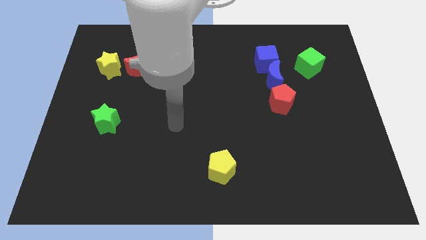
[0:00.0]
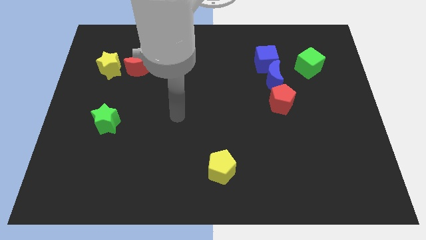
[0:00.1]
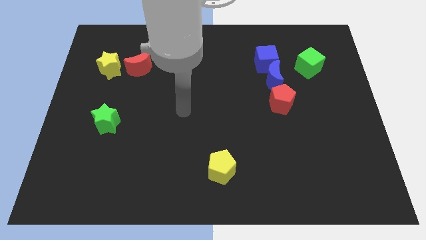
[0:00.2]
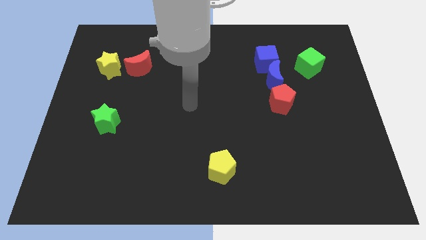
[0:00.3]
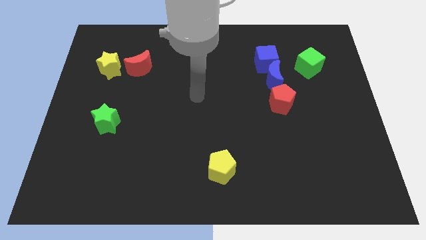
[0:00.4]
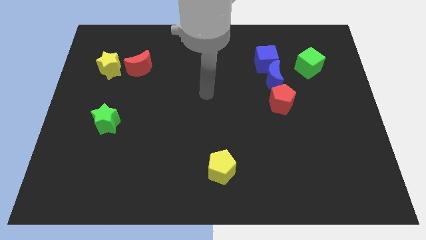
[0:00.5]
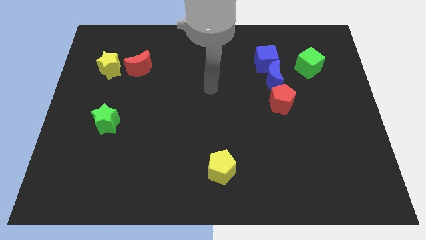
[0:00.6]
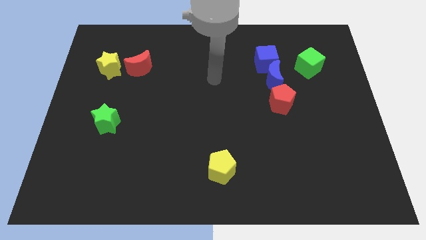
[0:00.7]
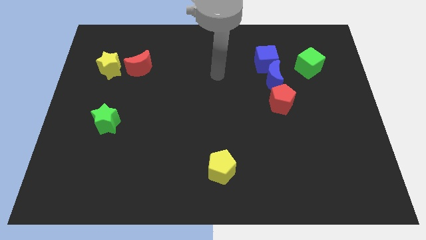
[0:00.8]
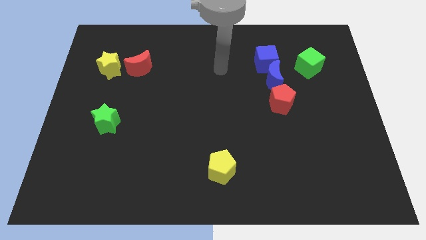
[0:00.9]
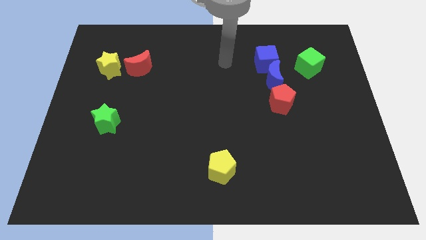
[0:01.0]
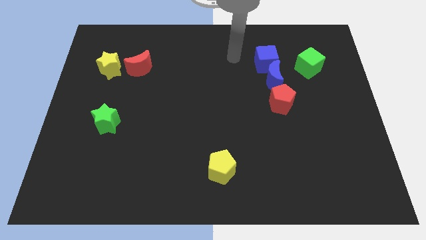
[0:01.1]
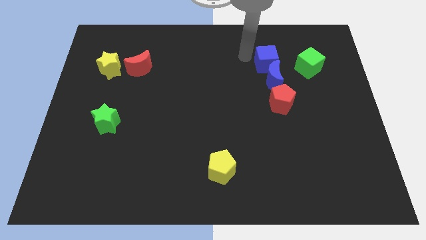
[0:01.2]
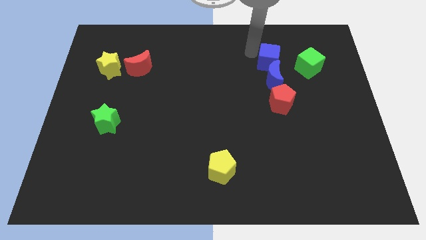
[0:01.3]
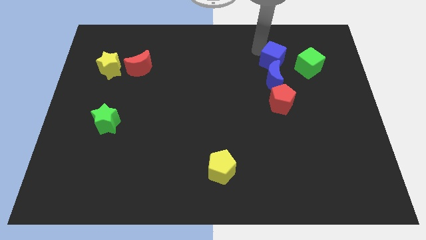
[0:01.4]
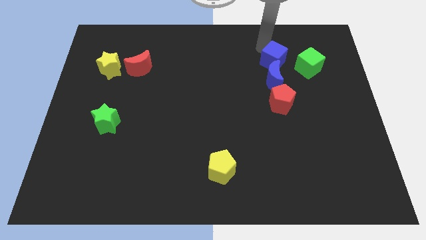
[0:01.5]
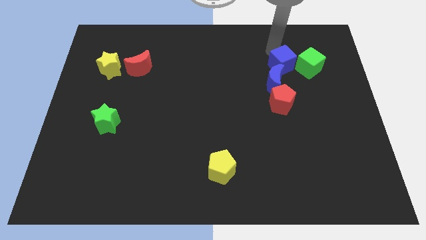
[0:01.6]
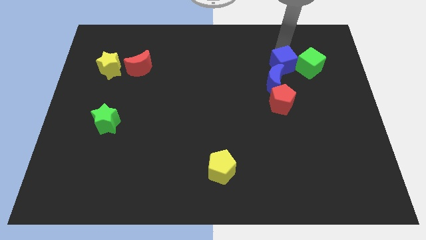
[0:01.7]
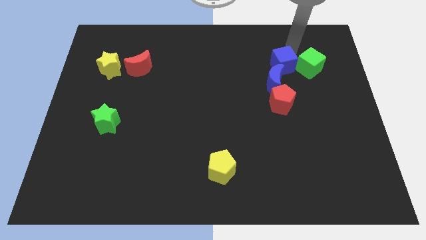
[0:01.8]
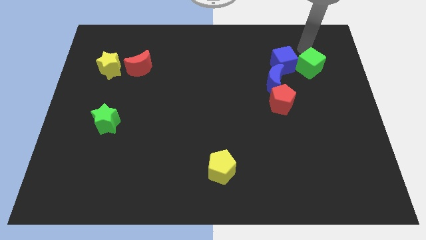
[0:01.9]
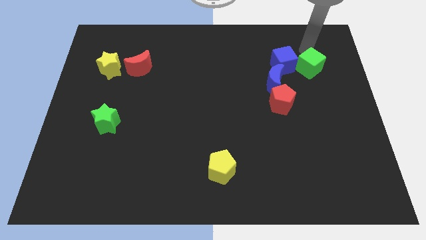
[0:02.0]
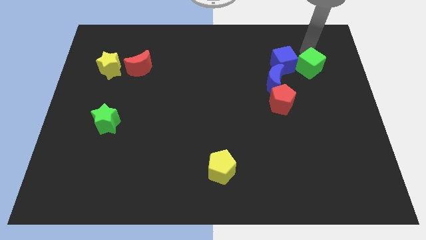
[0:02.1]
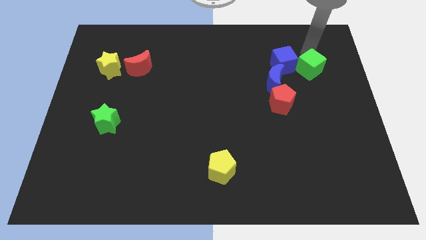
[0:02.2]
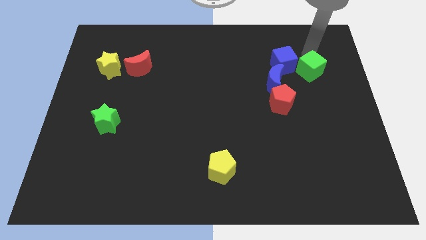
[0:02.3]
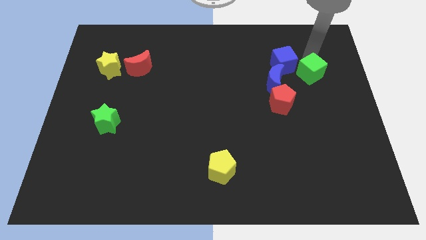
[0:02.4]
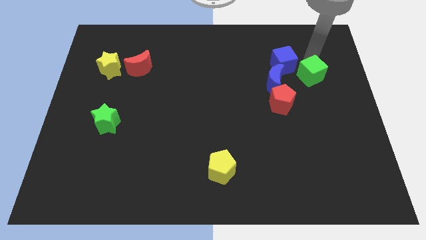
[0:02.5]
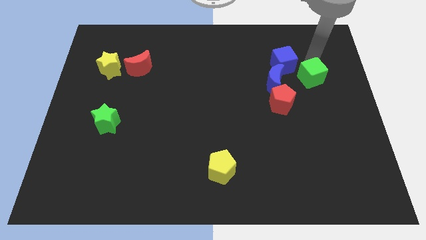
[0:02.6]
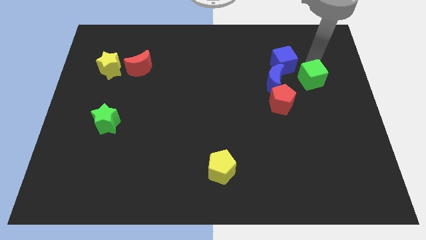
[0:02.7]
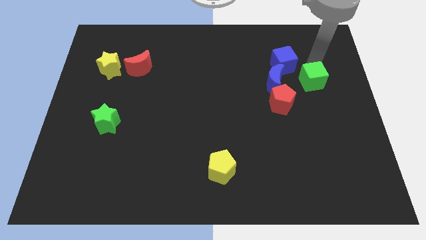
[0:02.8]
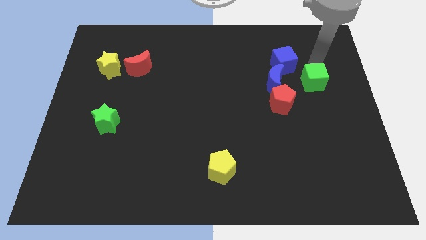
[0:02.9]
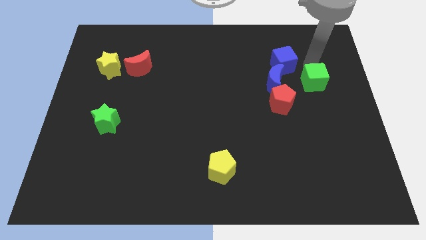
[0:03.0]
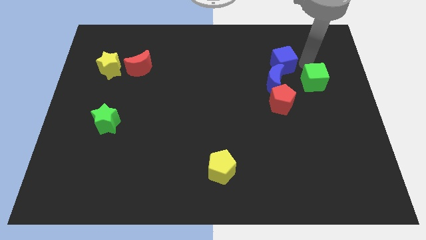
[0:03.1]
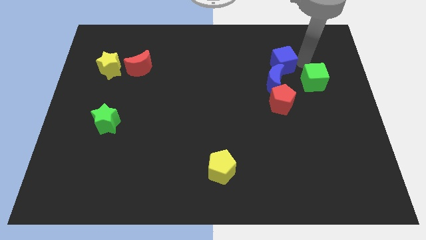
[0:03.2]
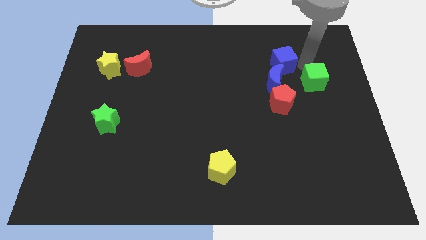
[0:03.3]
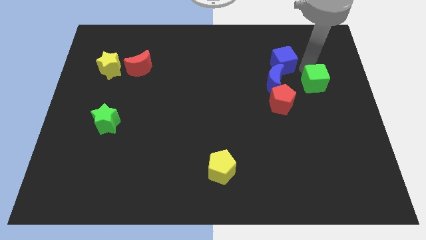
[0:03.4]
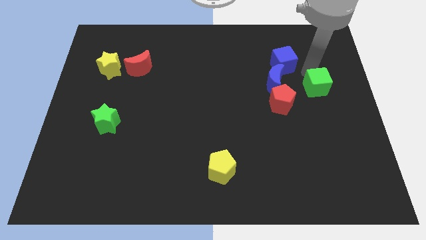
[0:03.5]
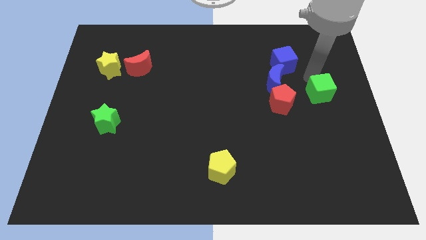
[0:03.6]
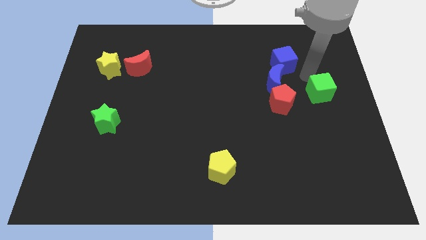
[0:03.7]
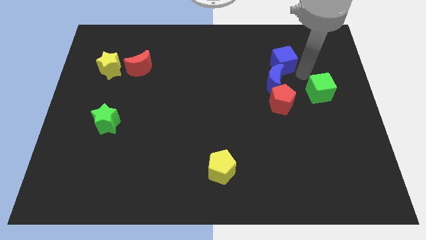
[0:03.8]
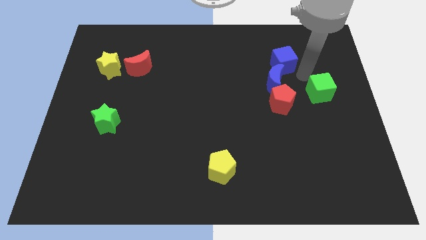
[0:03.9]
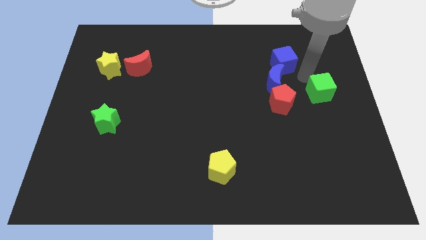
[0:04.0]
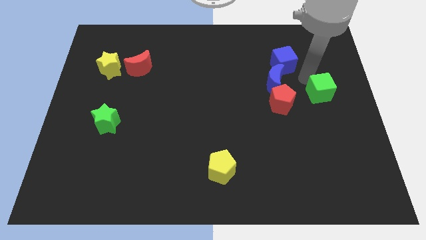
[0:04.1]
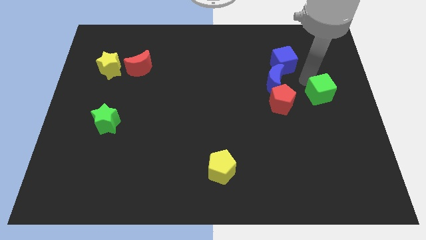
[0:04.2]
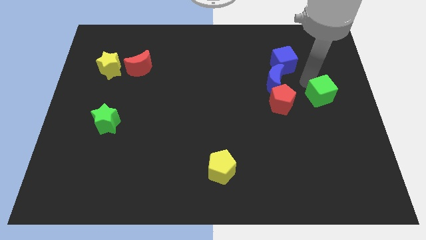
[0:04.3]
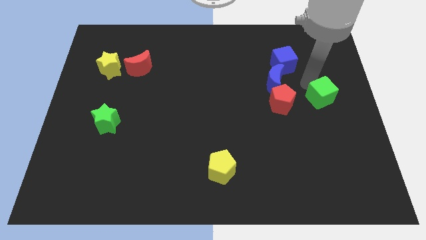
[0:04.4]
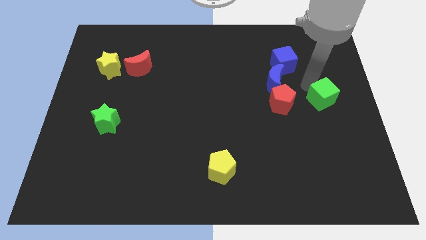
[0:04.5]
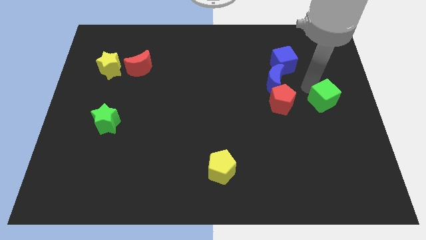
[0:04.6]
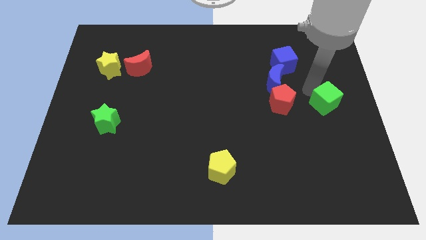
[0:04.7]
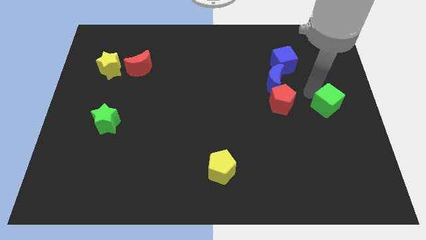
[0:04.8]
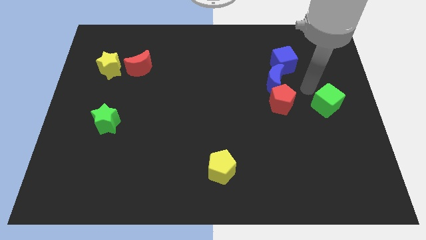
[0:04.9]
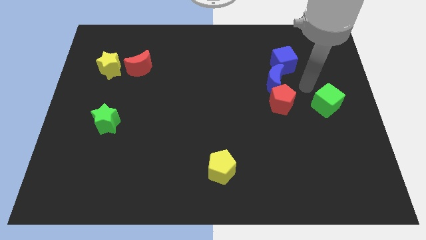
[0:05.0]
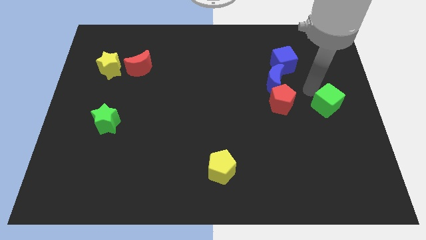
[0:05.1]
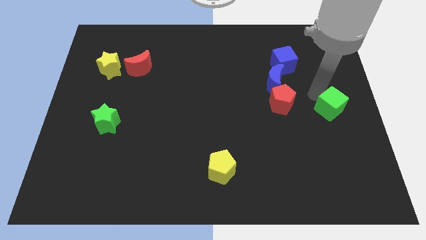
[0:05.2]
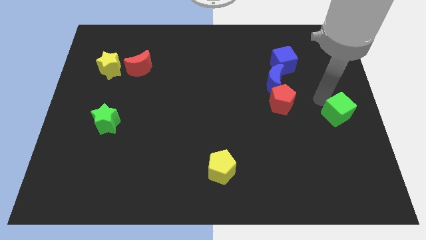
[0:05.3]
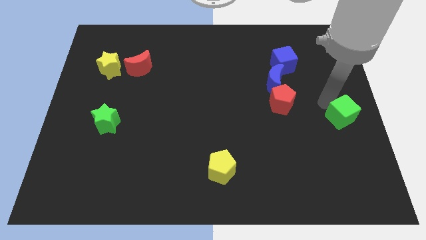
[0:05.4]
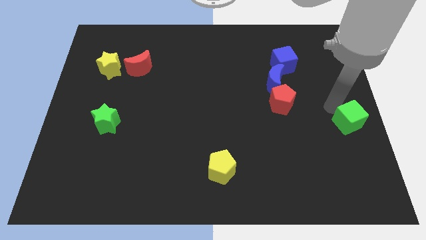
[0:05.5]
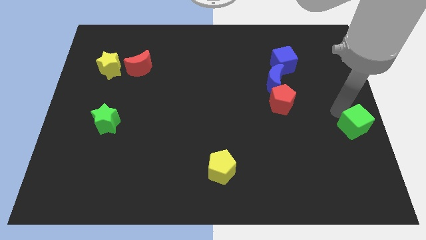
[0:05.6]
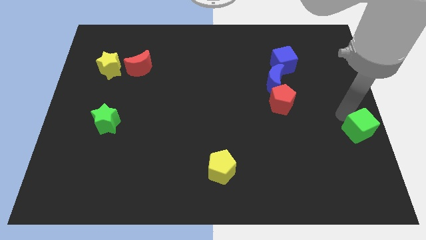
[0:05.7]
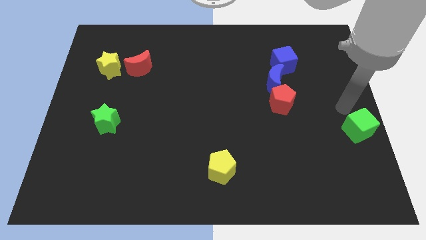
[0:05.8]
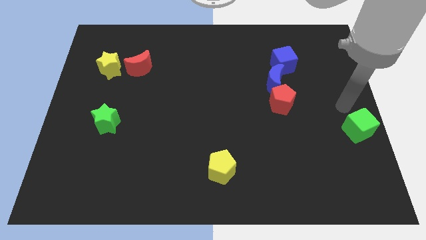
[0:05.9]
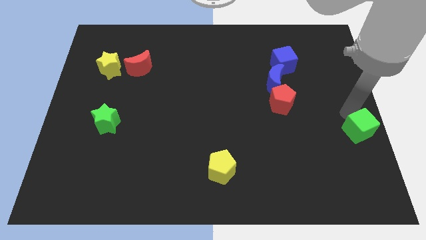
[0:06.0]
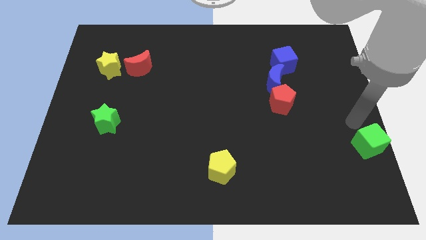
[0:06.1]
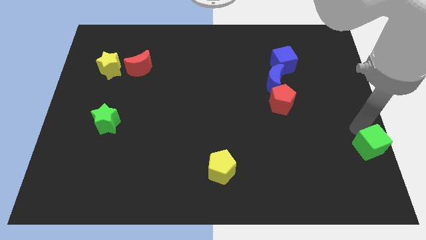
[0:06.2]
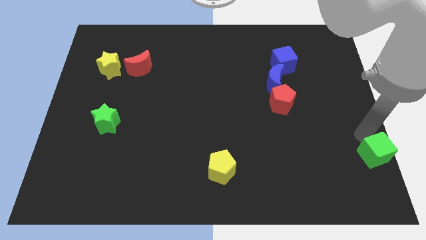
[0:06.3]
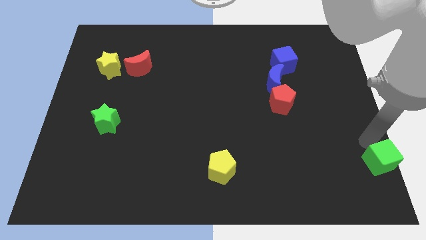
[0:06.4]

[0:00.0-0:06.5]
put the green cube to the lower right corner

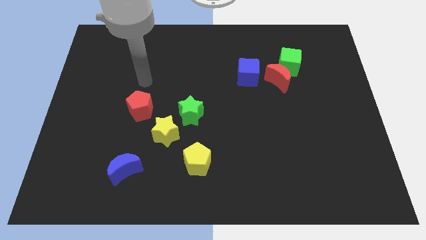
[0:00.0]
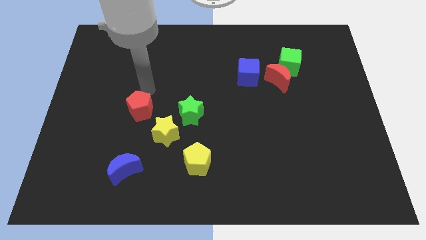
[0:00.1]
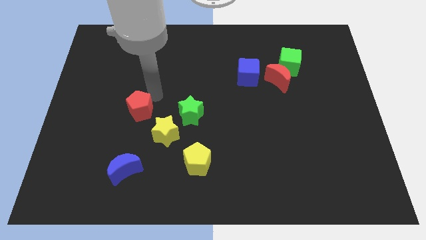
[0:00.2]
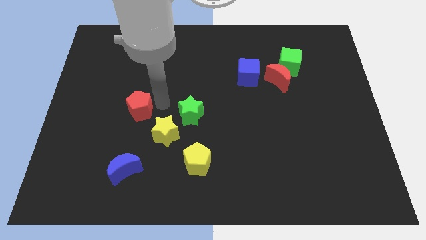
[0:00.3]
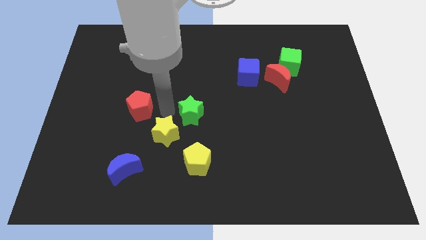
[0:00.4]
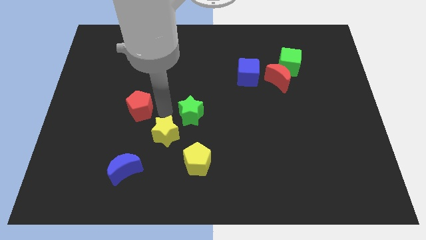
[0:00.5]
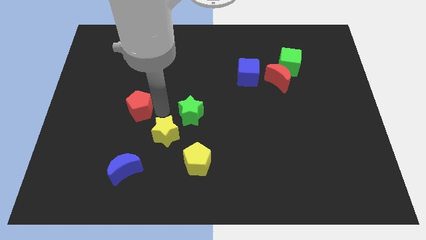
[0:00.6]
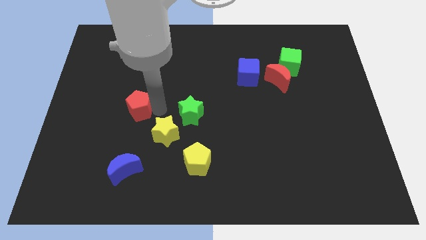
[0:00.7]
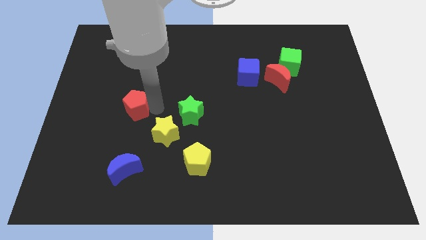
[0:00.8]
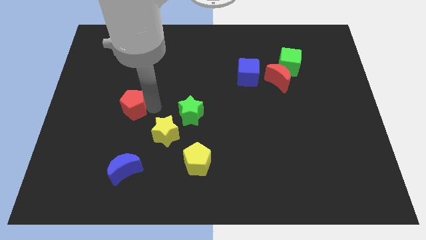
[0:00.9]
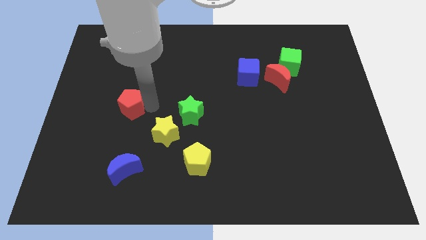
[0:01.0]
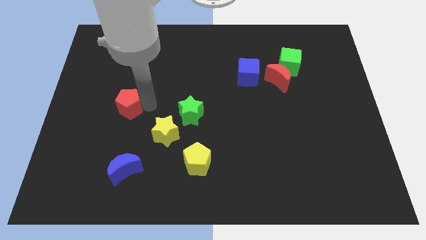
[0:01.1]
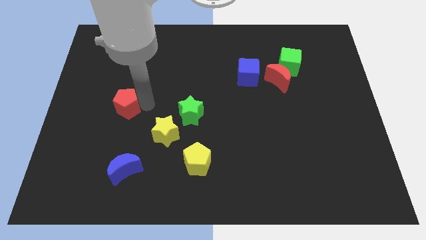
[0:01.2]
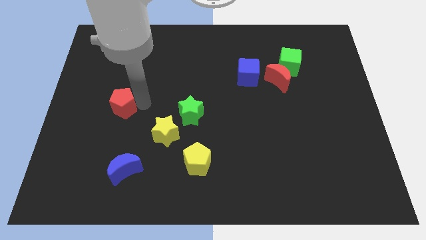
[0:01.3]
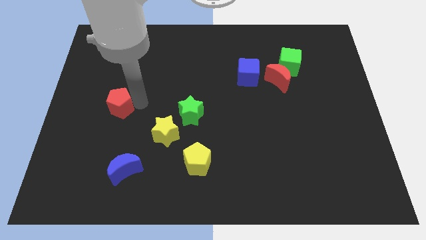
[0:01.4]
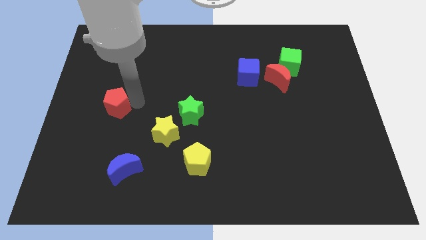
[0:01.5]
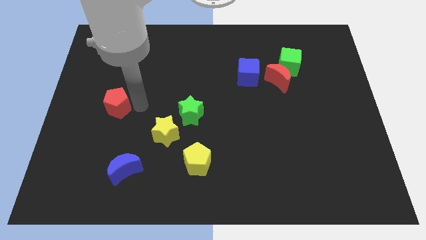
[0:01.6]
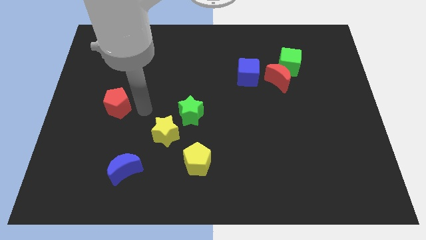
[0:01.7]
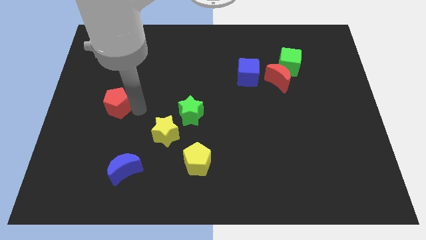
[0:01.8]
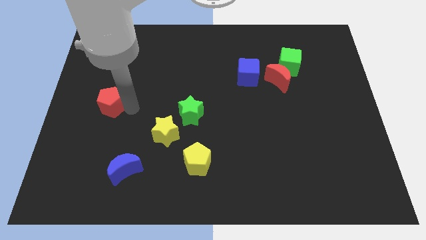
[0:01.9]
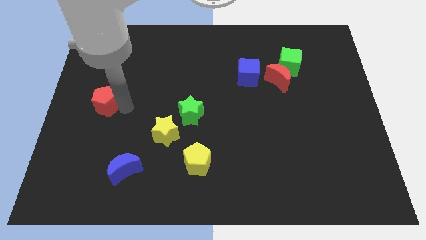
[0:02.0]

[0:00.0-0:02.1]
push the red pentagon to the center left
